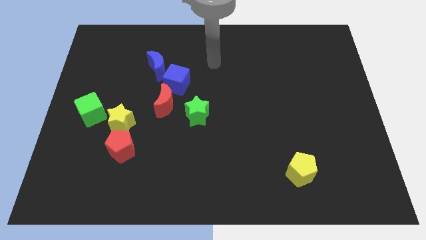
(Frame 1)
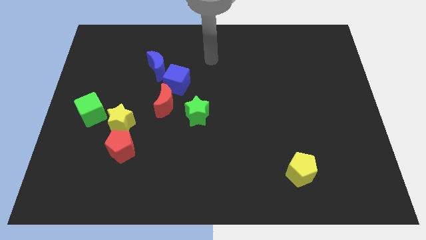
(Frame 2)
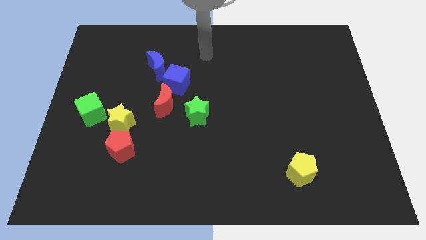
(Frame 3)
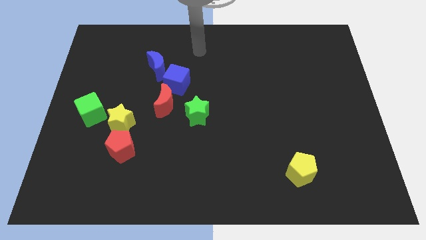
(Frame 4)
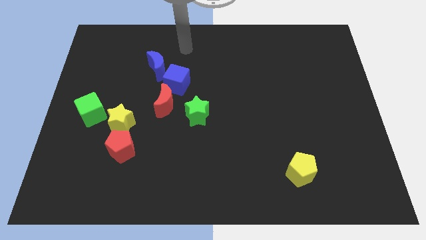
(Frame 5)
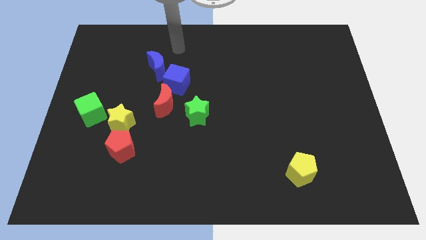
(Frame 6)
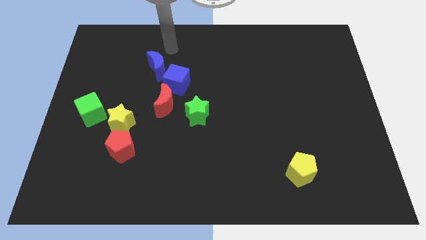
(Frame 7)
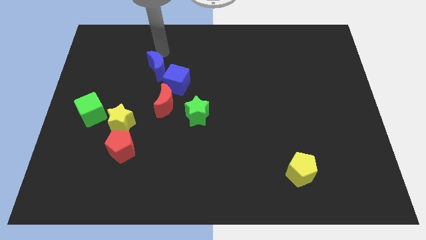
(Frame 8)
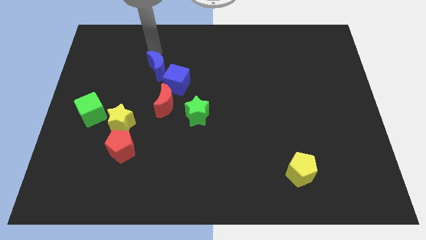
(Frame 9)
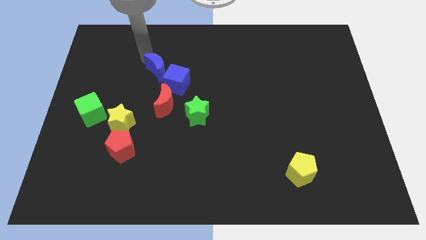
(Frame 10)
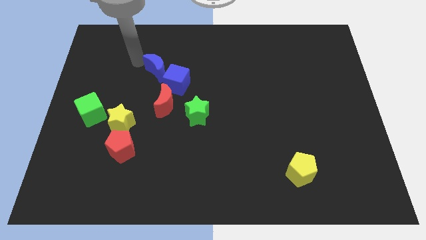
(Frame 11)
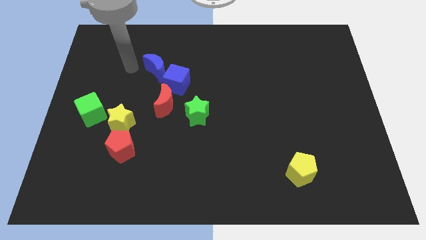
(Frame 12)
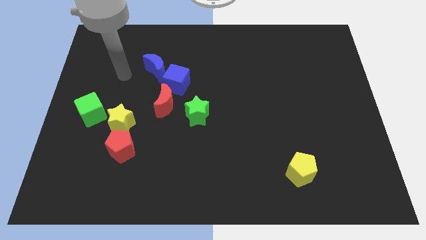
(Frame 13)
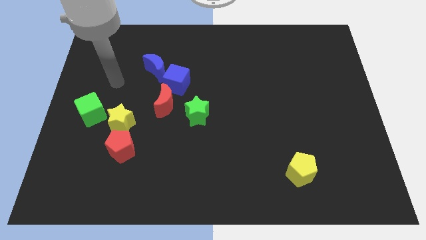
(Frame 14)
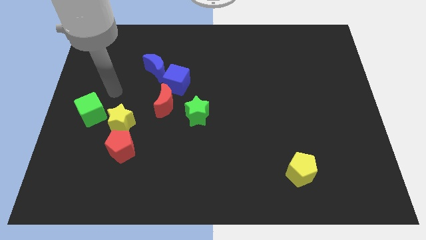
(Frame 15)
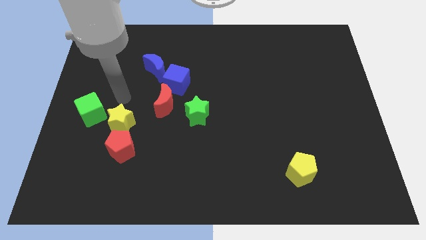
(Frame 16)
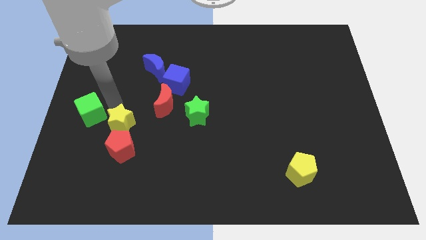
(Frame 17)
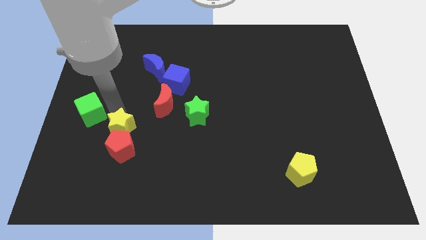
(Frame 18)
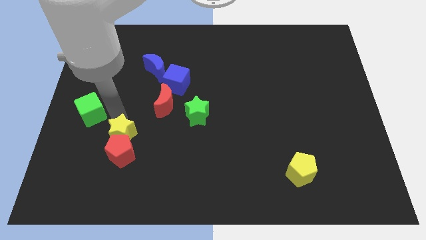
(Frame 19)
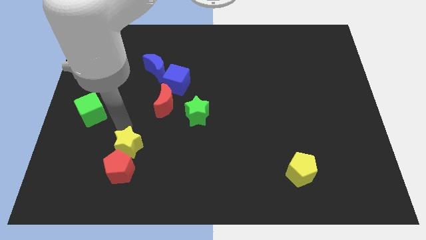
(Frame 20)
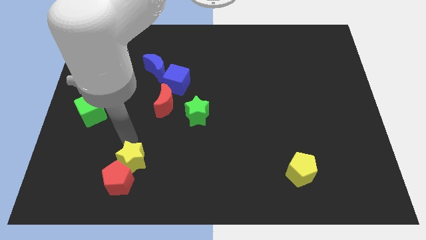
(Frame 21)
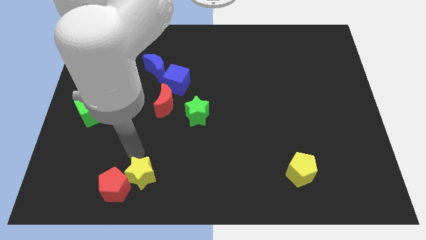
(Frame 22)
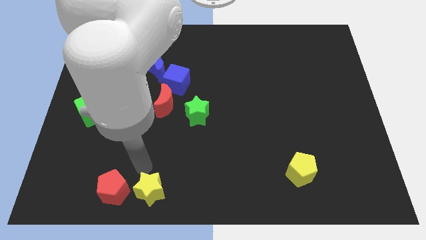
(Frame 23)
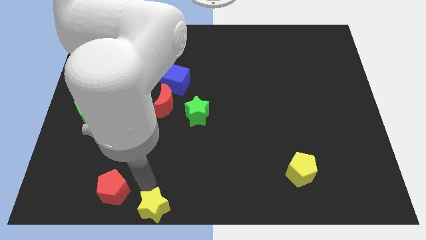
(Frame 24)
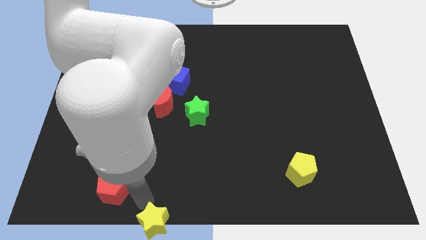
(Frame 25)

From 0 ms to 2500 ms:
pull the red pentagon apart from the yellow star

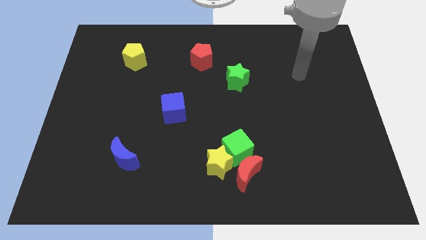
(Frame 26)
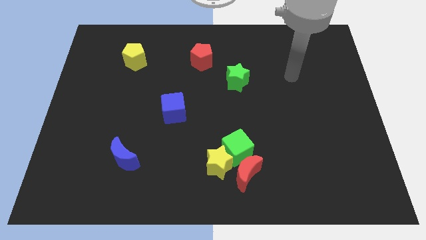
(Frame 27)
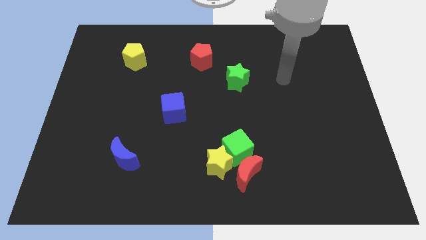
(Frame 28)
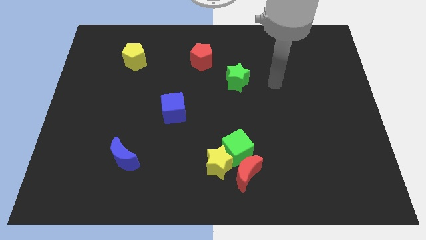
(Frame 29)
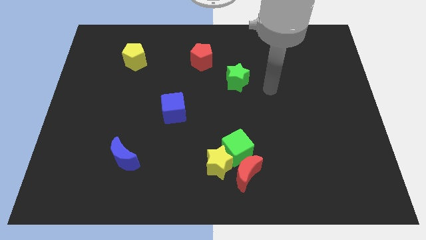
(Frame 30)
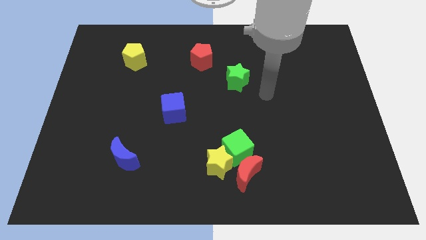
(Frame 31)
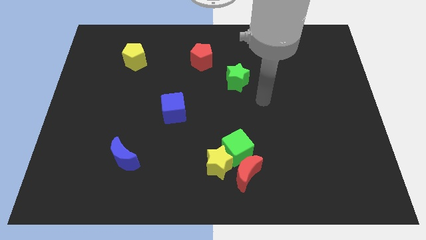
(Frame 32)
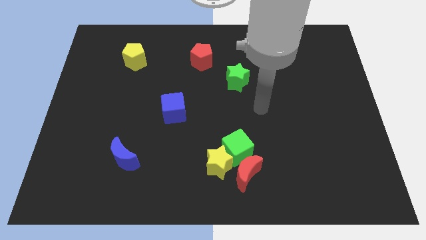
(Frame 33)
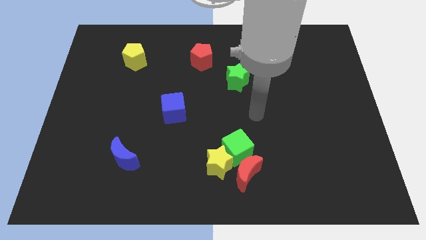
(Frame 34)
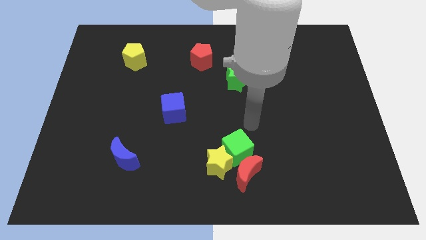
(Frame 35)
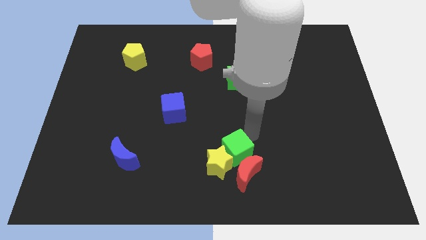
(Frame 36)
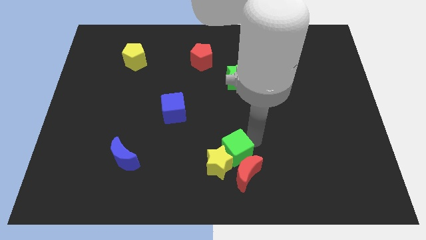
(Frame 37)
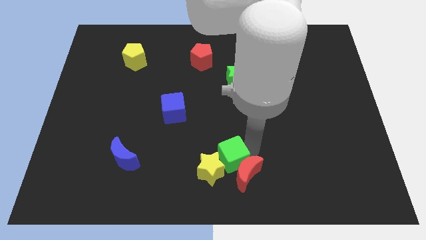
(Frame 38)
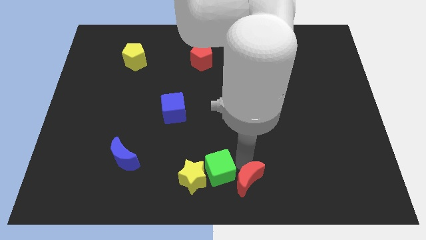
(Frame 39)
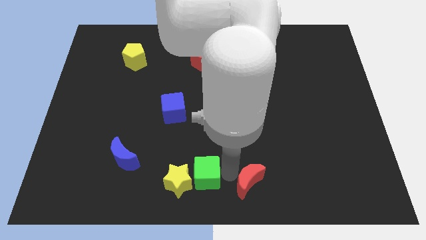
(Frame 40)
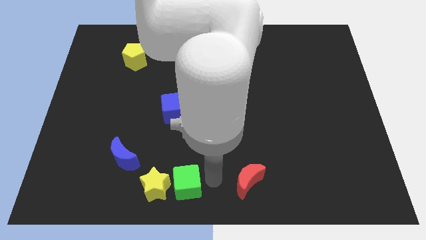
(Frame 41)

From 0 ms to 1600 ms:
move the yellow star away from the green cube and red moon

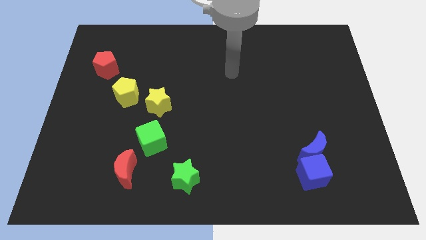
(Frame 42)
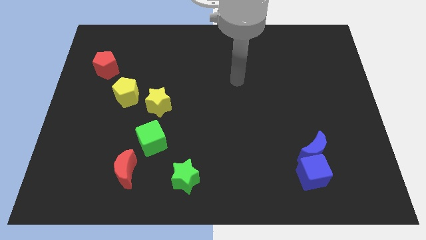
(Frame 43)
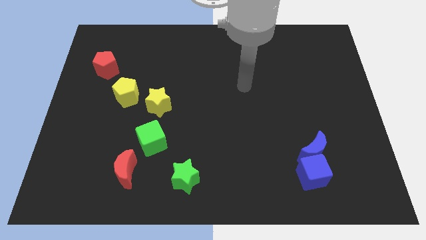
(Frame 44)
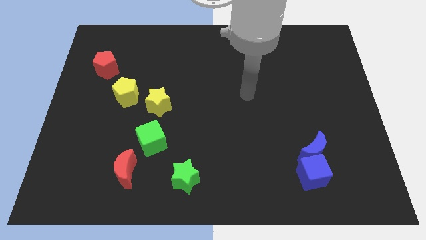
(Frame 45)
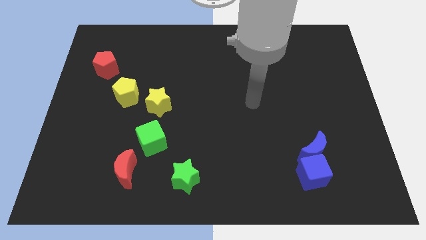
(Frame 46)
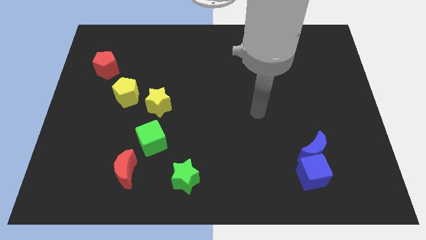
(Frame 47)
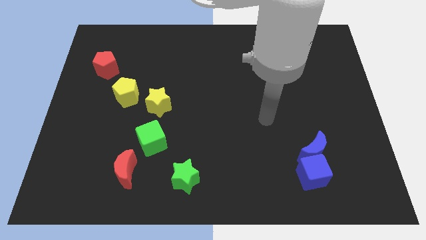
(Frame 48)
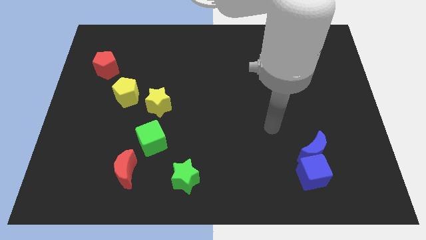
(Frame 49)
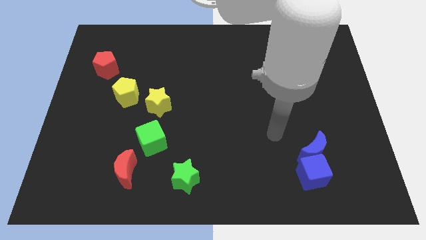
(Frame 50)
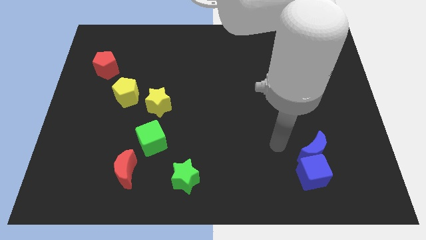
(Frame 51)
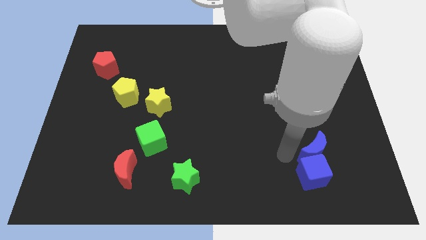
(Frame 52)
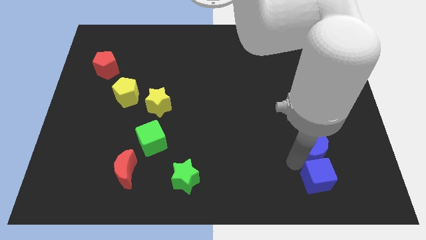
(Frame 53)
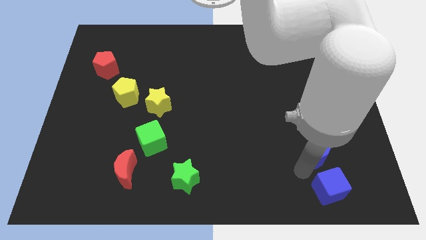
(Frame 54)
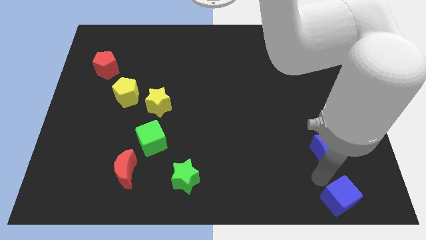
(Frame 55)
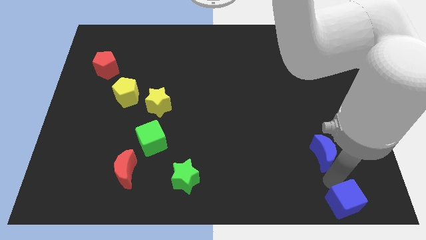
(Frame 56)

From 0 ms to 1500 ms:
separate the blue moon from the blue cube

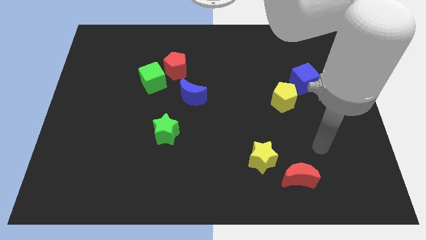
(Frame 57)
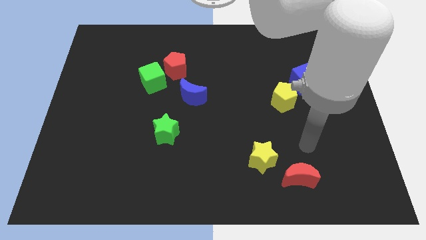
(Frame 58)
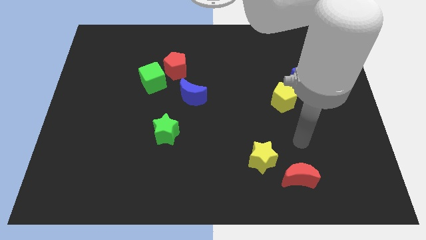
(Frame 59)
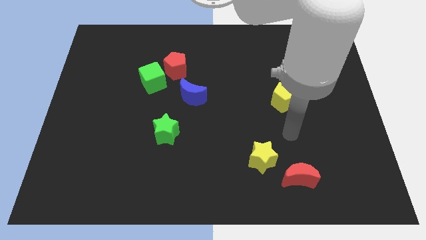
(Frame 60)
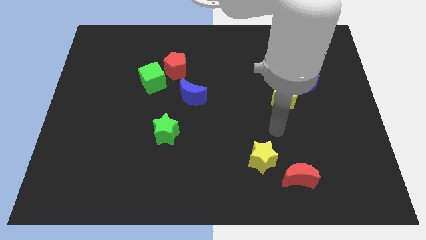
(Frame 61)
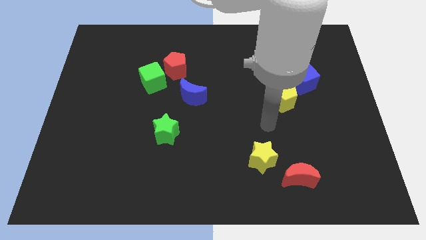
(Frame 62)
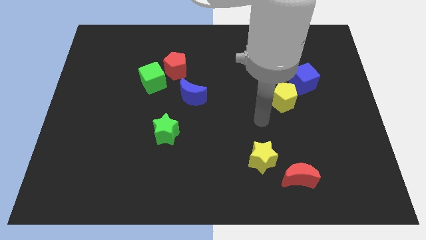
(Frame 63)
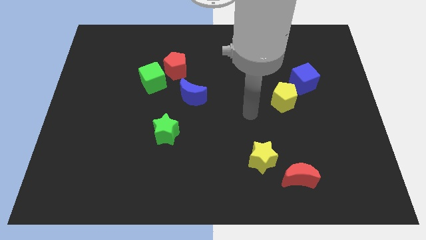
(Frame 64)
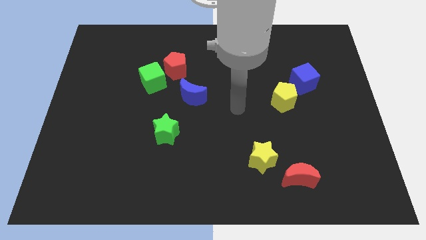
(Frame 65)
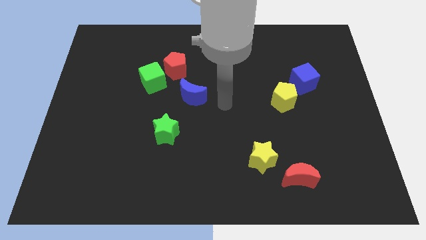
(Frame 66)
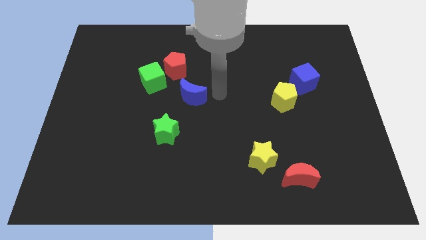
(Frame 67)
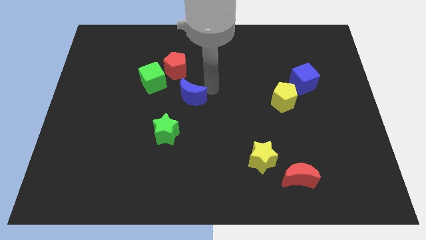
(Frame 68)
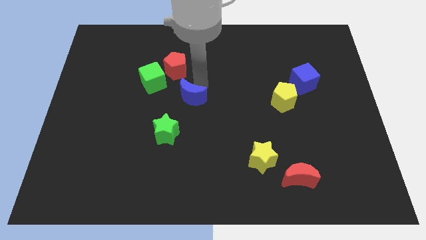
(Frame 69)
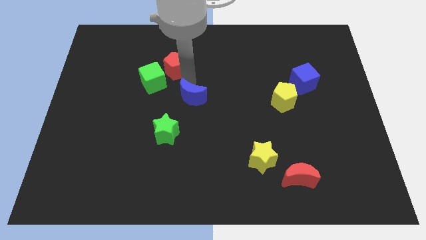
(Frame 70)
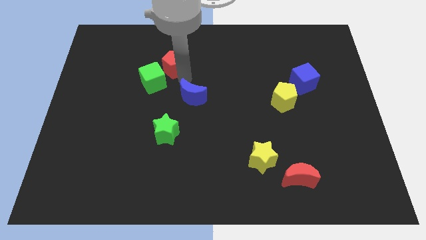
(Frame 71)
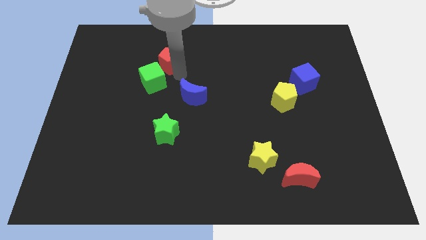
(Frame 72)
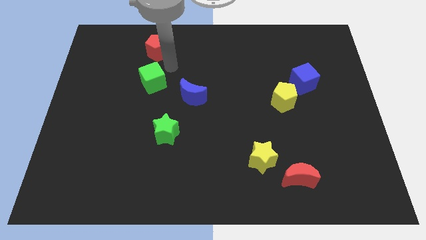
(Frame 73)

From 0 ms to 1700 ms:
separate the green cube from the red pentagon

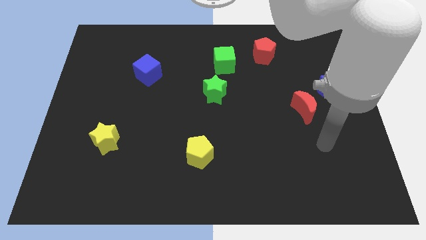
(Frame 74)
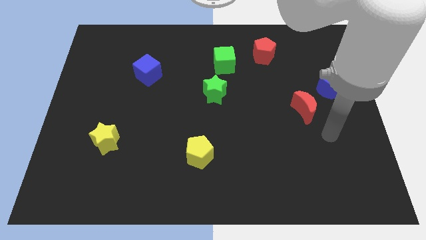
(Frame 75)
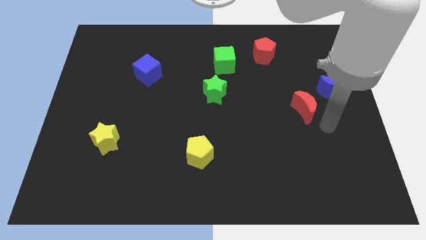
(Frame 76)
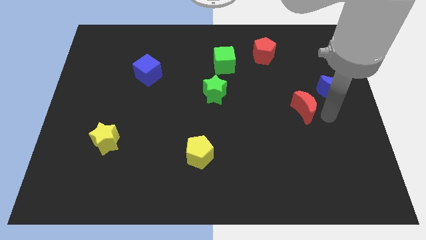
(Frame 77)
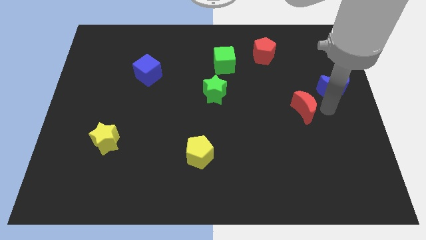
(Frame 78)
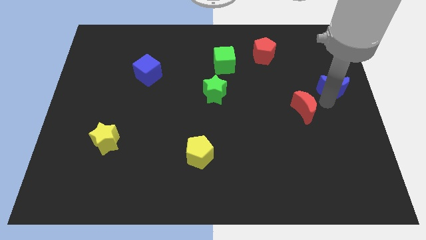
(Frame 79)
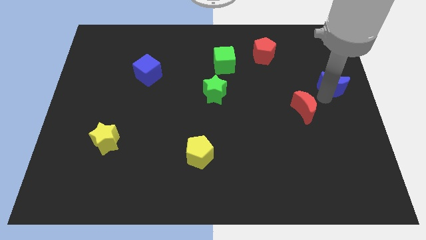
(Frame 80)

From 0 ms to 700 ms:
move the red moon away from the blue moon

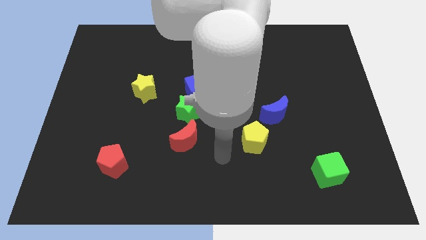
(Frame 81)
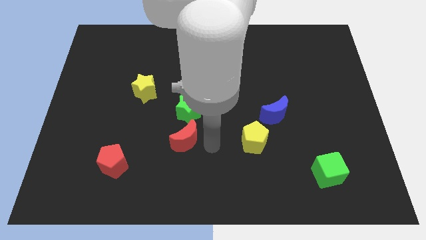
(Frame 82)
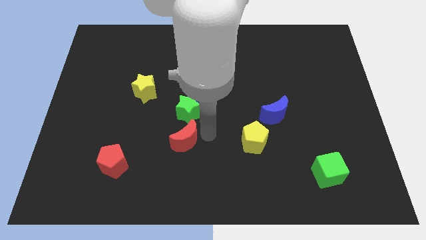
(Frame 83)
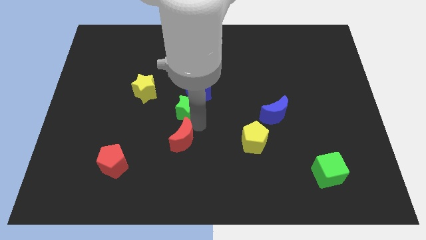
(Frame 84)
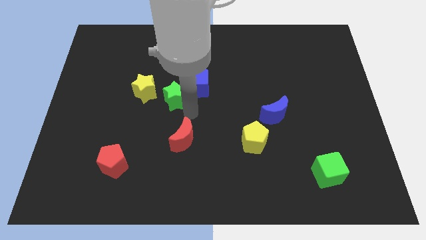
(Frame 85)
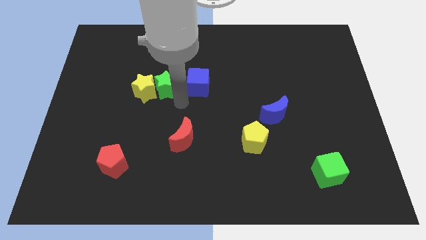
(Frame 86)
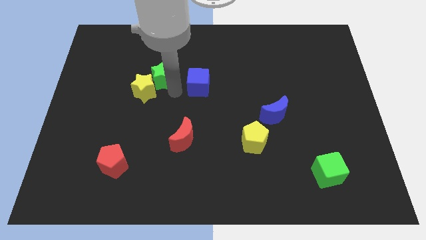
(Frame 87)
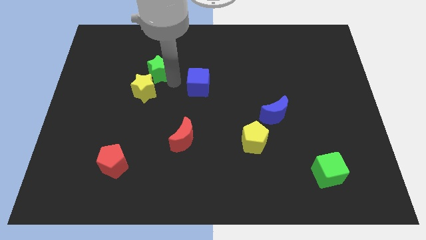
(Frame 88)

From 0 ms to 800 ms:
move the blue cube away from the green star

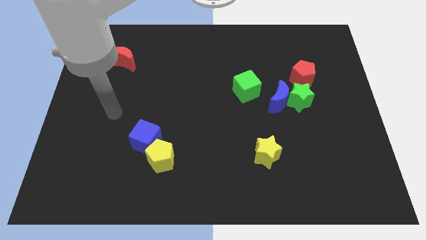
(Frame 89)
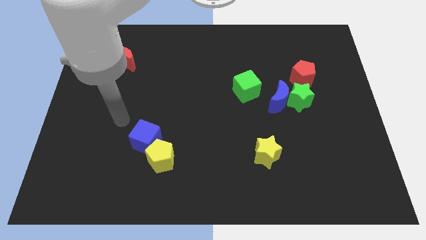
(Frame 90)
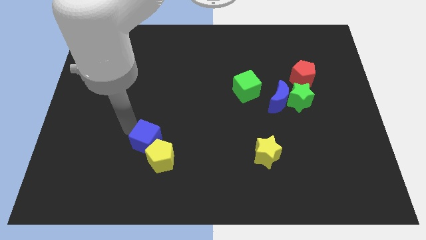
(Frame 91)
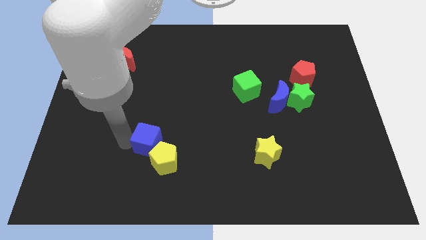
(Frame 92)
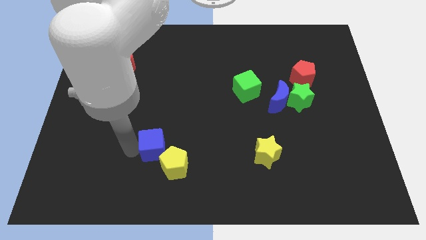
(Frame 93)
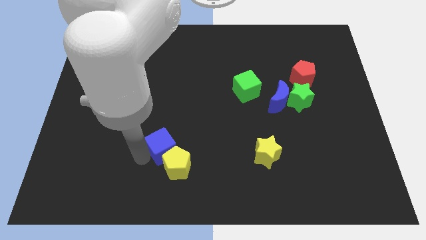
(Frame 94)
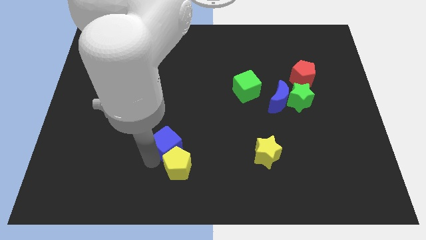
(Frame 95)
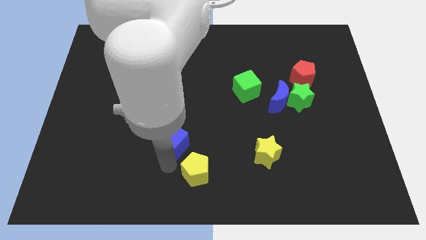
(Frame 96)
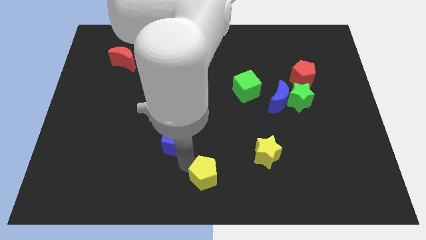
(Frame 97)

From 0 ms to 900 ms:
separate the blue cube from the yellow pentagon
